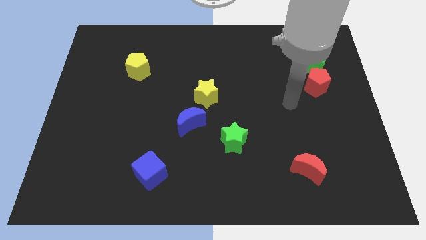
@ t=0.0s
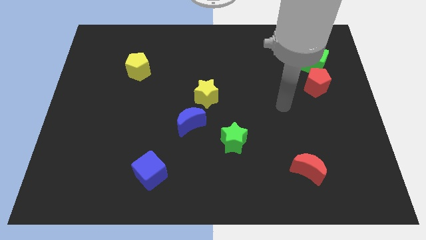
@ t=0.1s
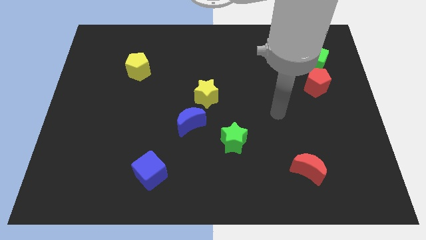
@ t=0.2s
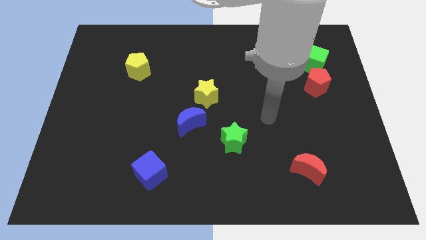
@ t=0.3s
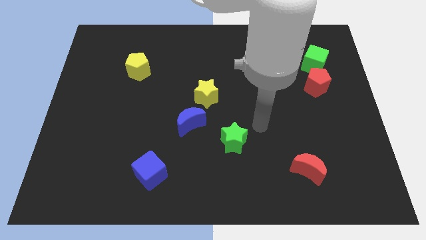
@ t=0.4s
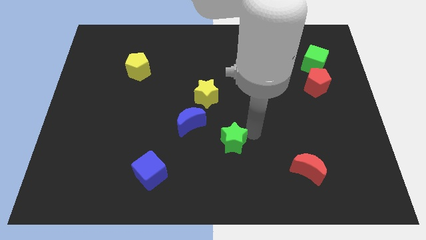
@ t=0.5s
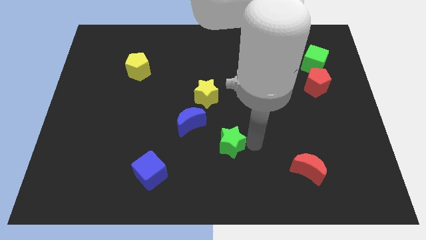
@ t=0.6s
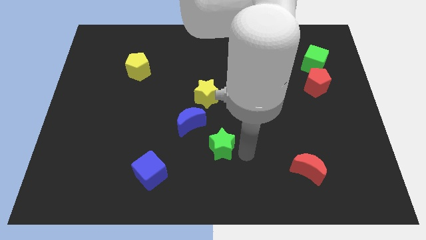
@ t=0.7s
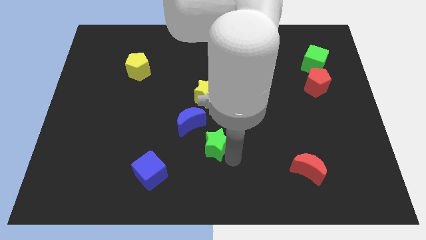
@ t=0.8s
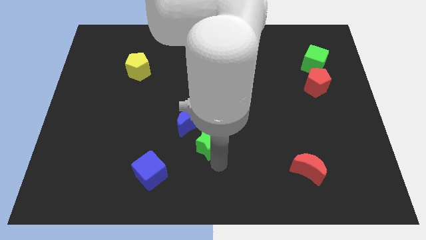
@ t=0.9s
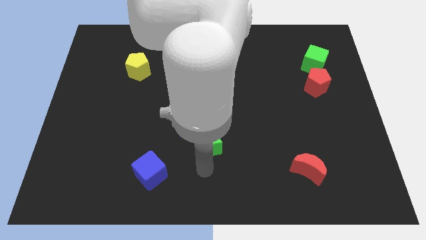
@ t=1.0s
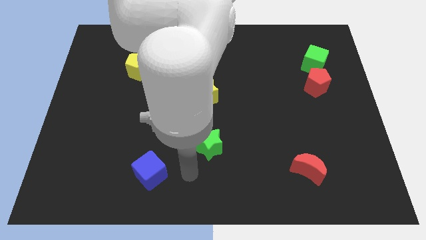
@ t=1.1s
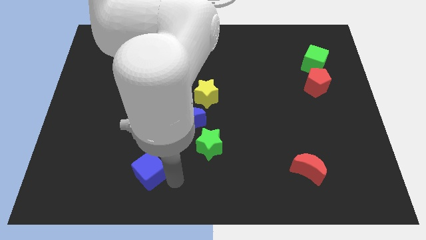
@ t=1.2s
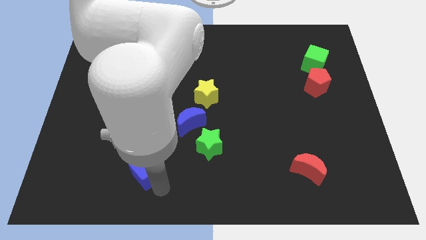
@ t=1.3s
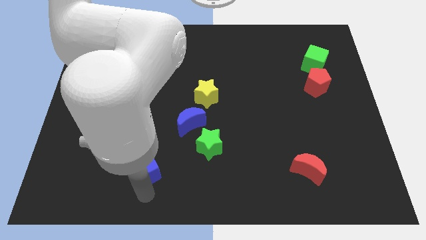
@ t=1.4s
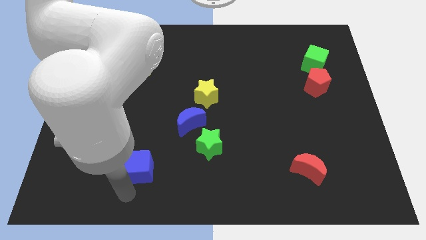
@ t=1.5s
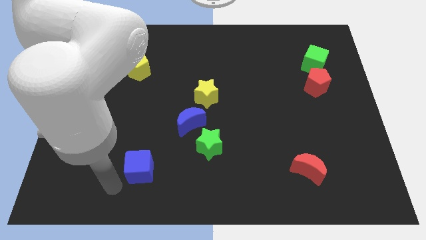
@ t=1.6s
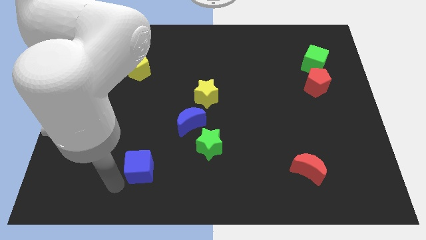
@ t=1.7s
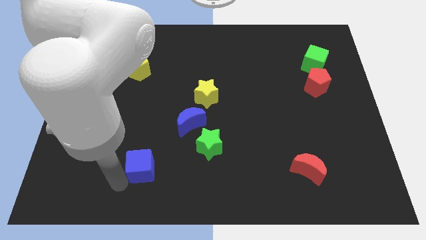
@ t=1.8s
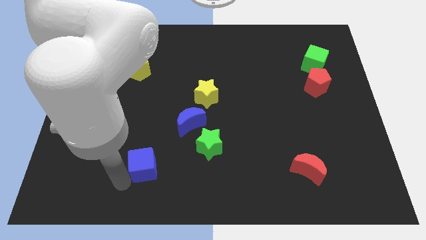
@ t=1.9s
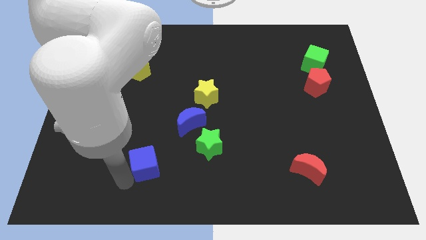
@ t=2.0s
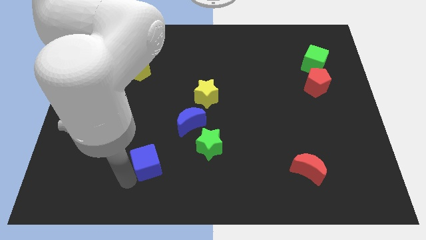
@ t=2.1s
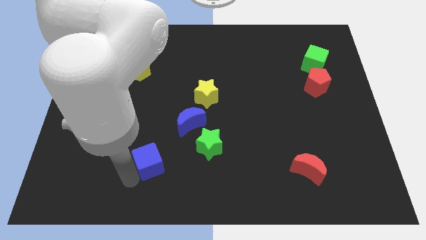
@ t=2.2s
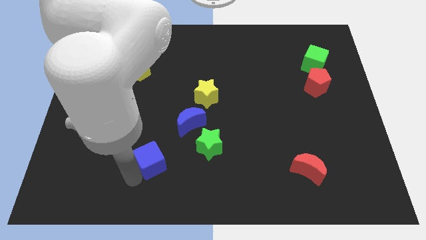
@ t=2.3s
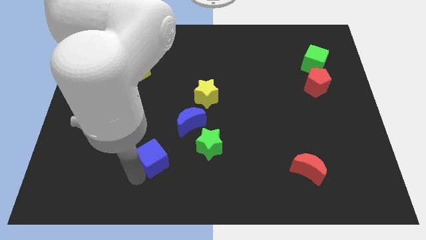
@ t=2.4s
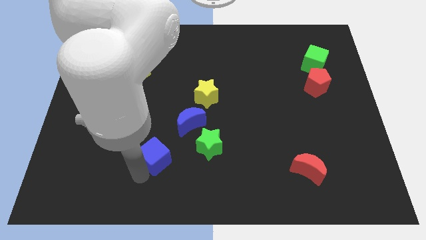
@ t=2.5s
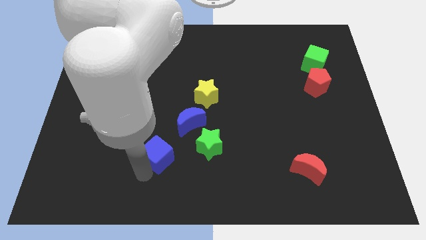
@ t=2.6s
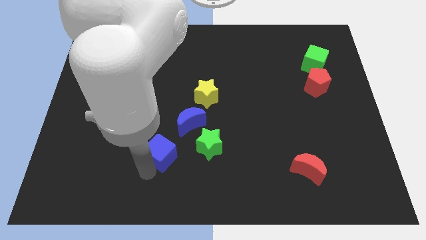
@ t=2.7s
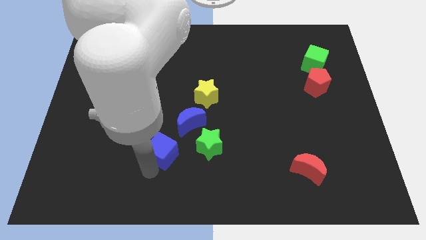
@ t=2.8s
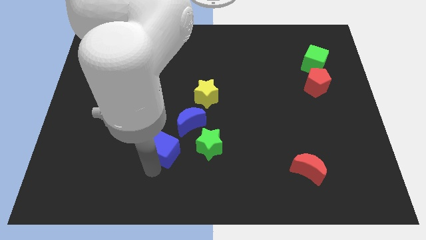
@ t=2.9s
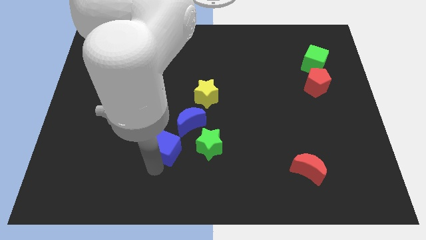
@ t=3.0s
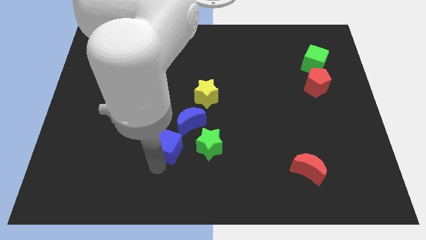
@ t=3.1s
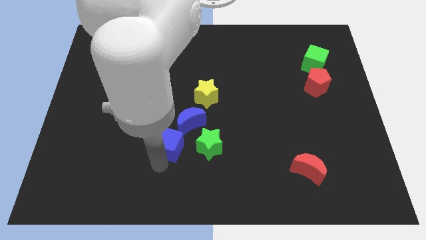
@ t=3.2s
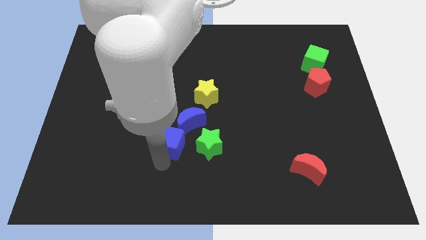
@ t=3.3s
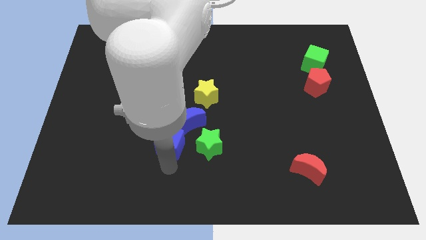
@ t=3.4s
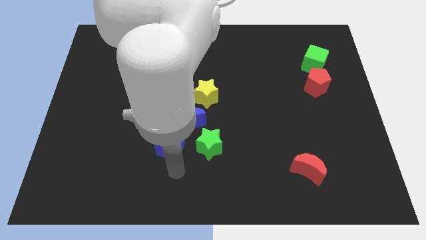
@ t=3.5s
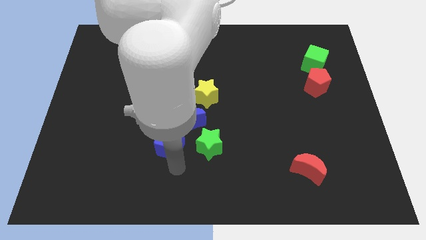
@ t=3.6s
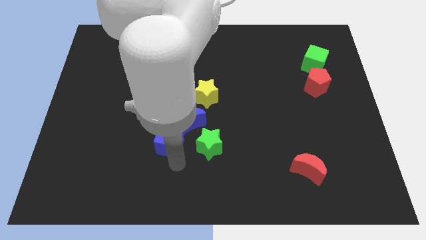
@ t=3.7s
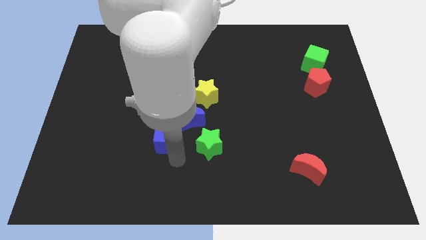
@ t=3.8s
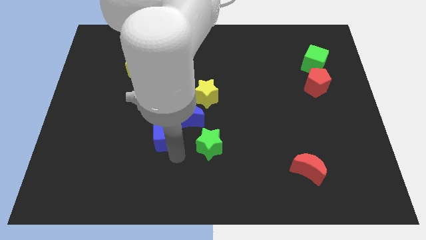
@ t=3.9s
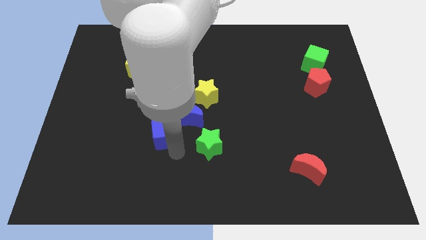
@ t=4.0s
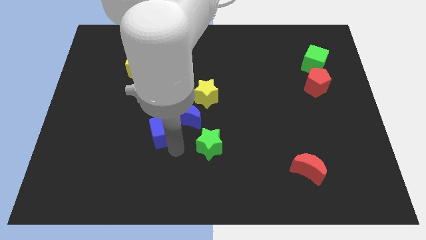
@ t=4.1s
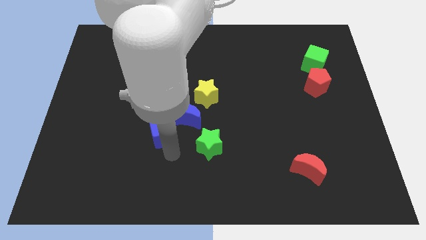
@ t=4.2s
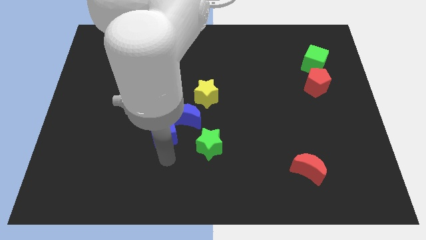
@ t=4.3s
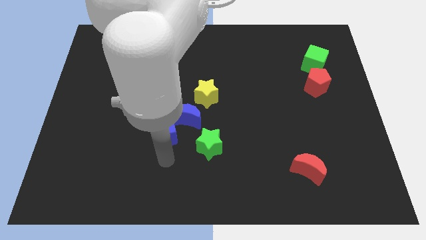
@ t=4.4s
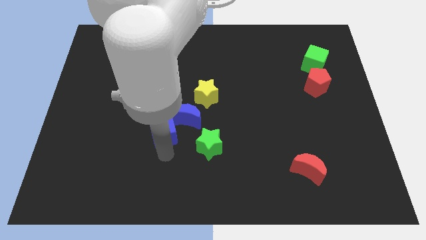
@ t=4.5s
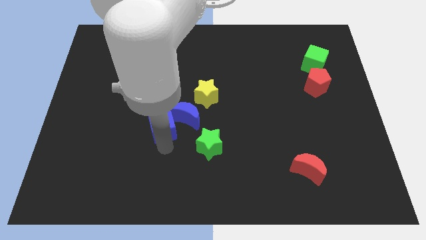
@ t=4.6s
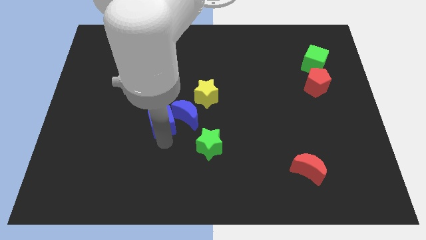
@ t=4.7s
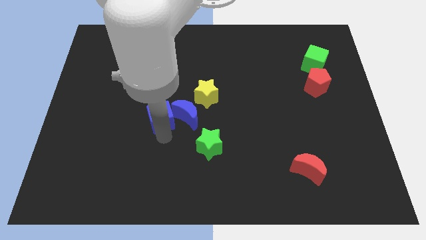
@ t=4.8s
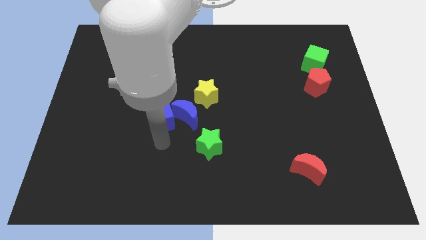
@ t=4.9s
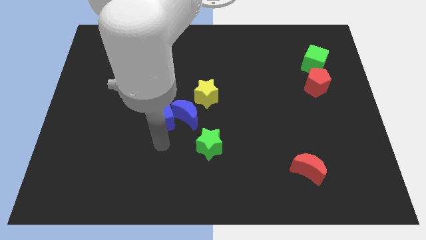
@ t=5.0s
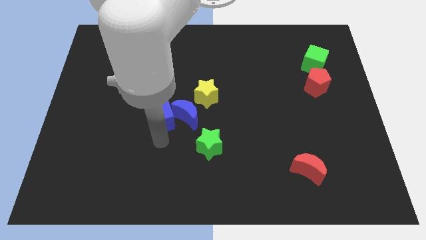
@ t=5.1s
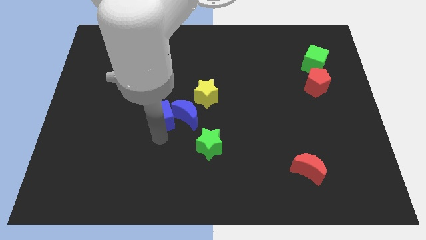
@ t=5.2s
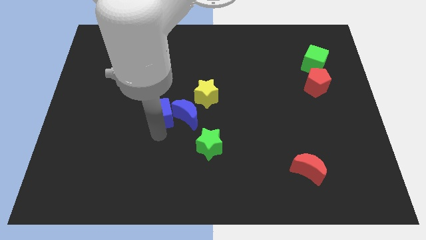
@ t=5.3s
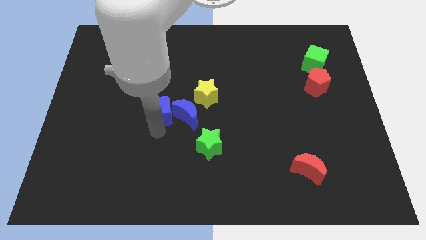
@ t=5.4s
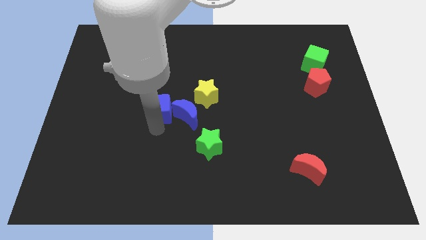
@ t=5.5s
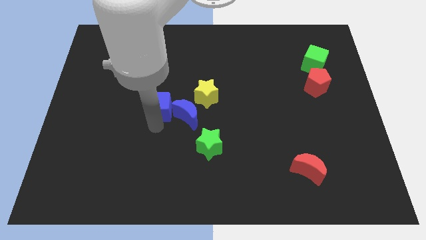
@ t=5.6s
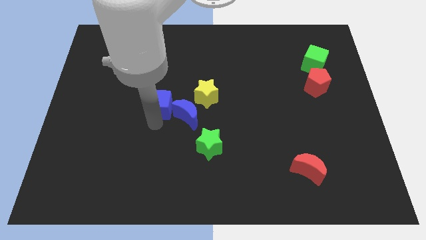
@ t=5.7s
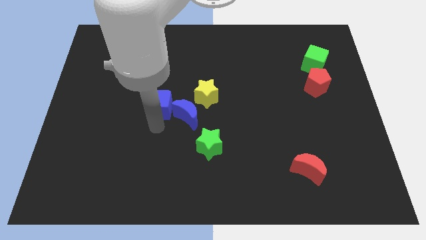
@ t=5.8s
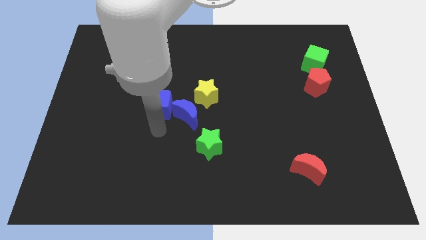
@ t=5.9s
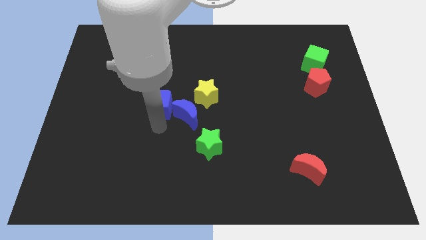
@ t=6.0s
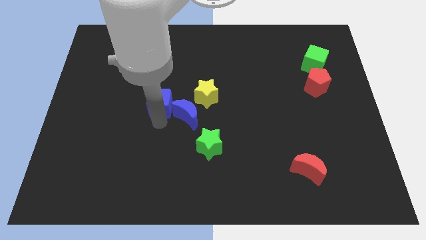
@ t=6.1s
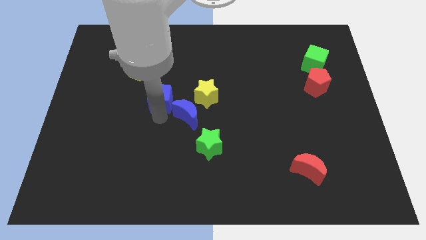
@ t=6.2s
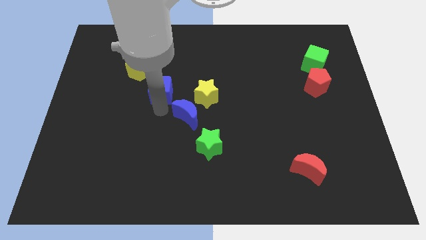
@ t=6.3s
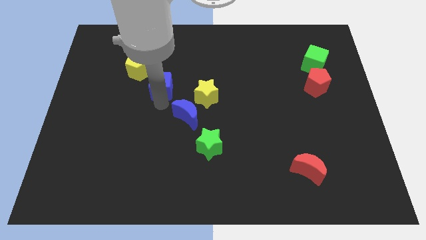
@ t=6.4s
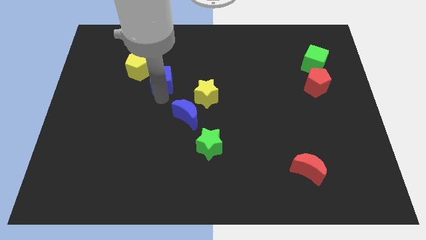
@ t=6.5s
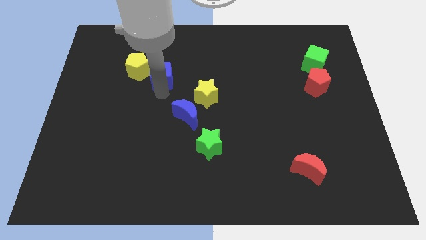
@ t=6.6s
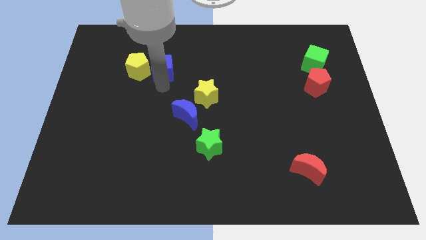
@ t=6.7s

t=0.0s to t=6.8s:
move the blue cube to the top right side of the yellow pentagon

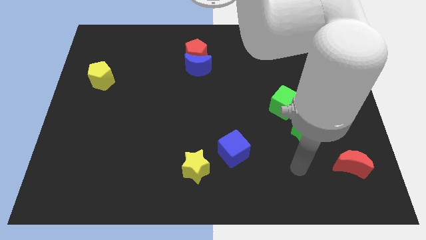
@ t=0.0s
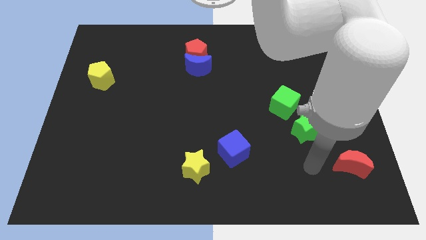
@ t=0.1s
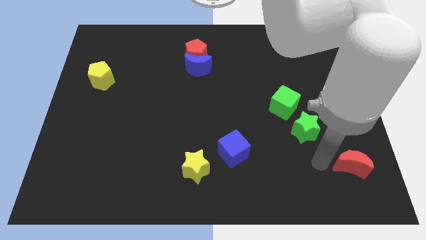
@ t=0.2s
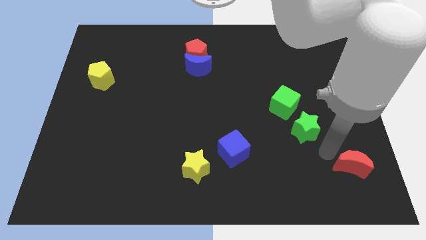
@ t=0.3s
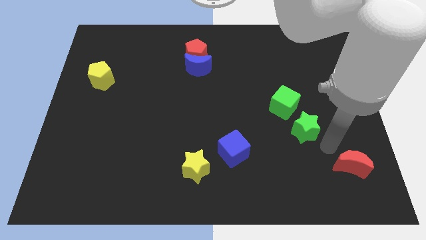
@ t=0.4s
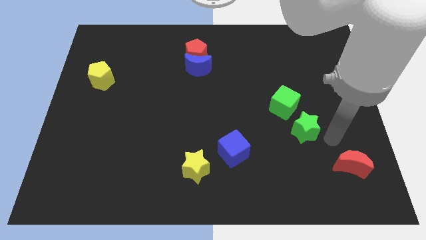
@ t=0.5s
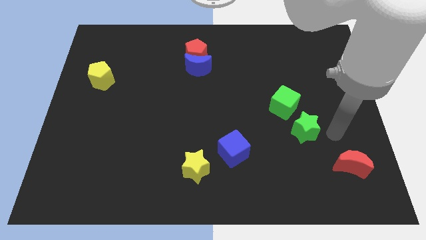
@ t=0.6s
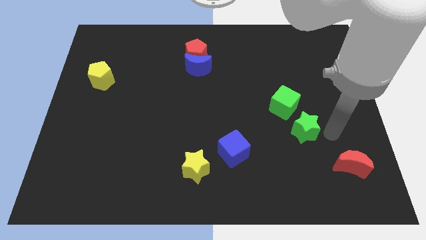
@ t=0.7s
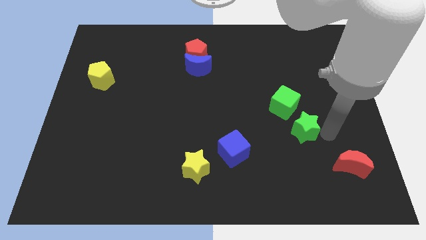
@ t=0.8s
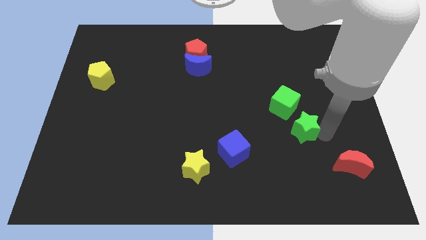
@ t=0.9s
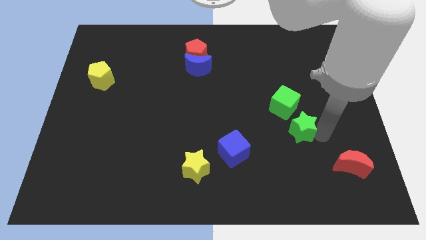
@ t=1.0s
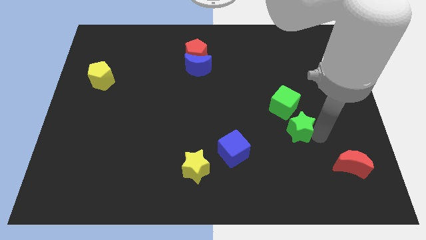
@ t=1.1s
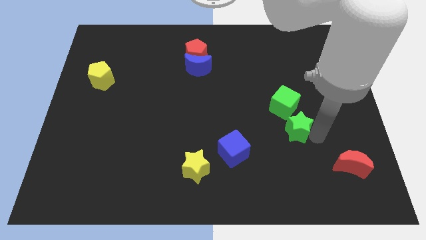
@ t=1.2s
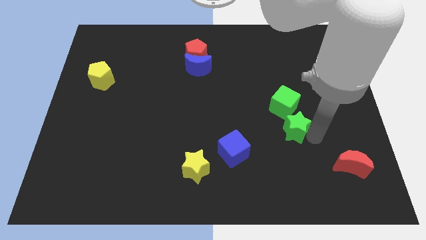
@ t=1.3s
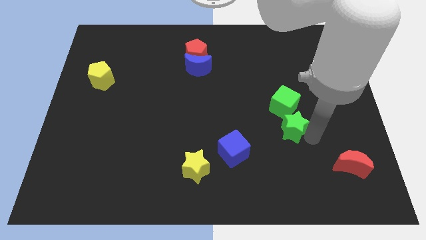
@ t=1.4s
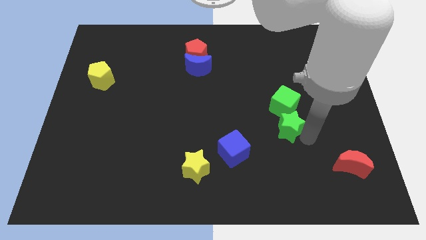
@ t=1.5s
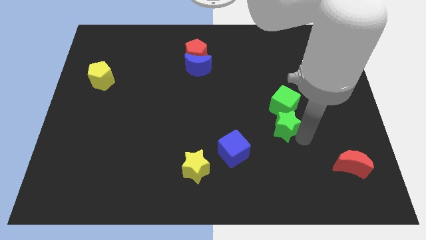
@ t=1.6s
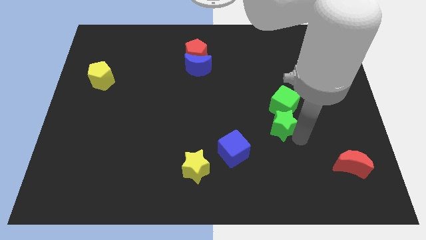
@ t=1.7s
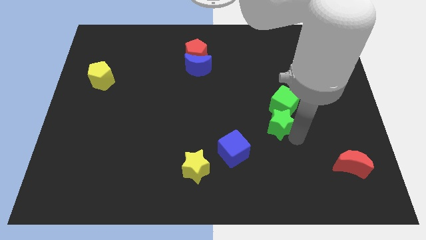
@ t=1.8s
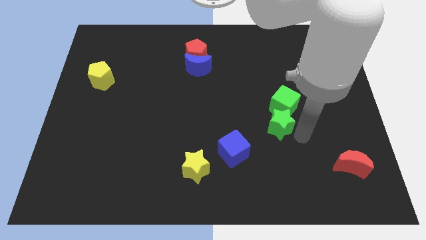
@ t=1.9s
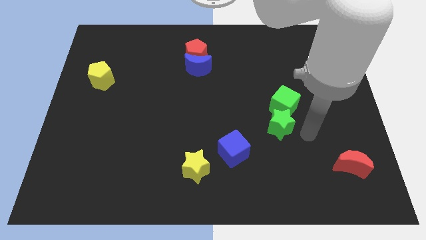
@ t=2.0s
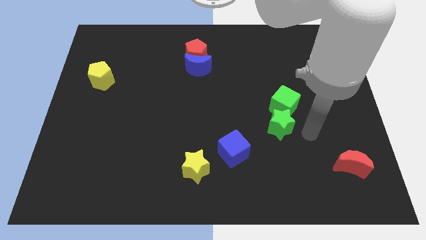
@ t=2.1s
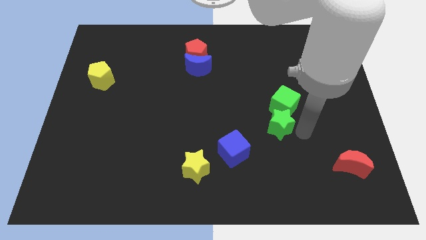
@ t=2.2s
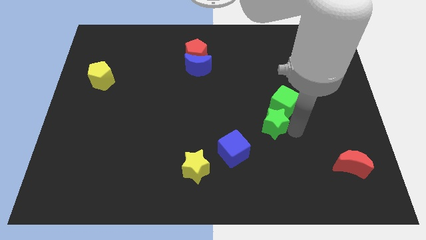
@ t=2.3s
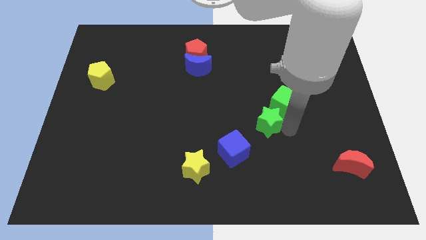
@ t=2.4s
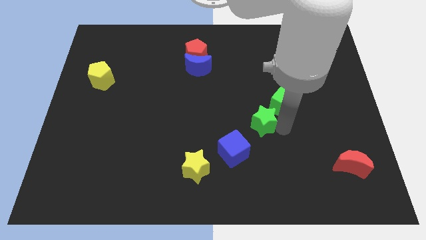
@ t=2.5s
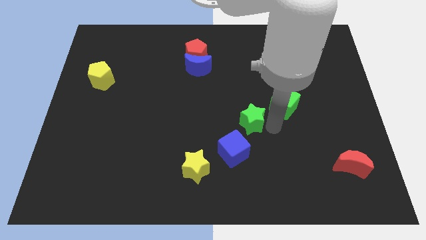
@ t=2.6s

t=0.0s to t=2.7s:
move the green star to the top of the blue cube
